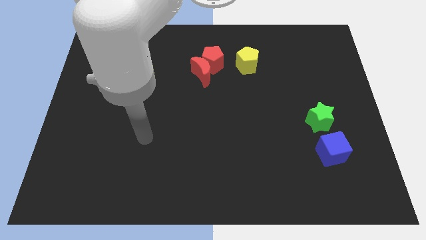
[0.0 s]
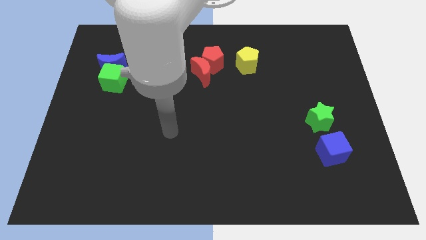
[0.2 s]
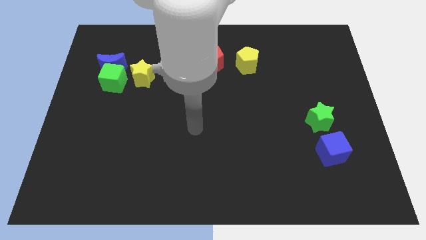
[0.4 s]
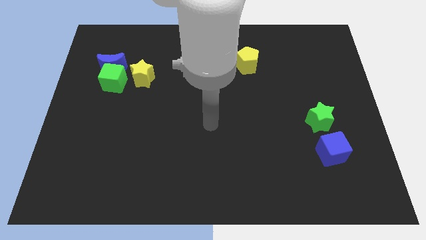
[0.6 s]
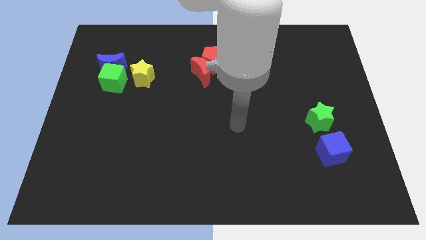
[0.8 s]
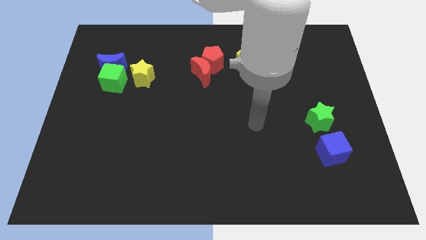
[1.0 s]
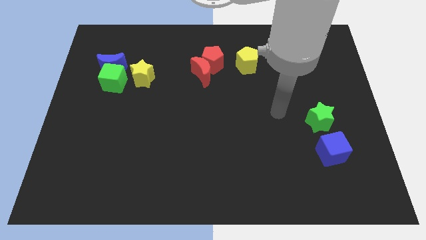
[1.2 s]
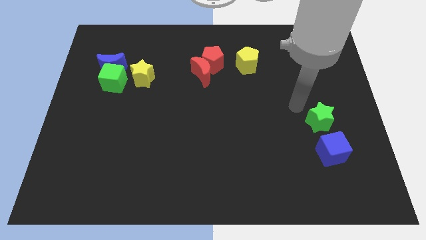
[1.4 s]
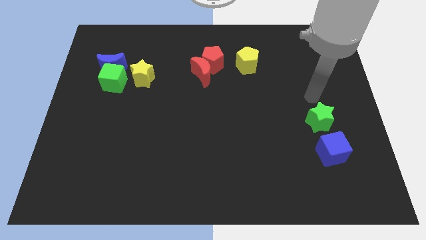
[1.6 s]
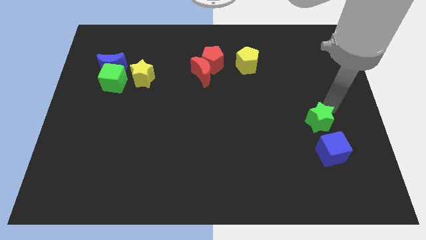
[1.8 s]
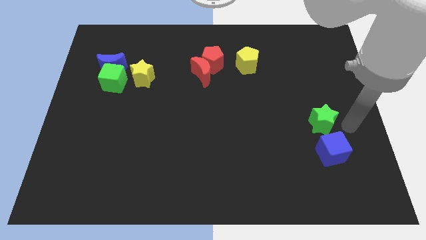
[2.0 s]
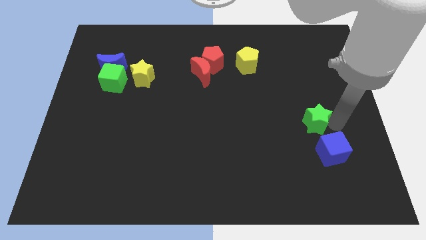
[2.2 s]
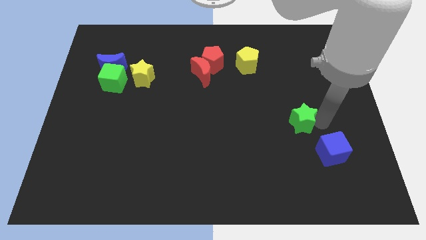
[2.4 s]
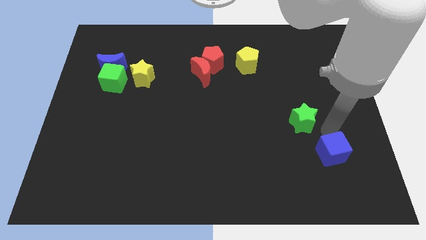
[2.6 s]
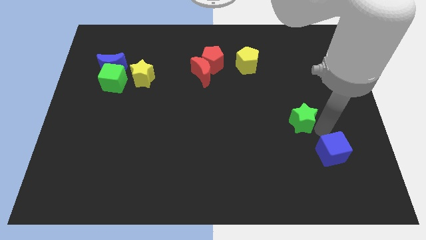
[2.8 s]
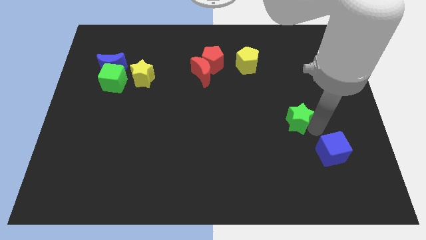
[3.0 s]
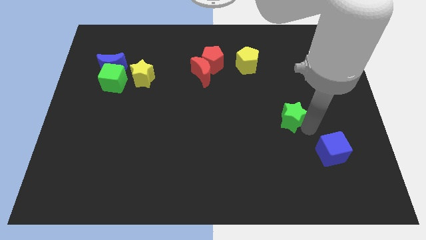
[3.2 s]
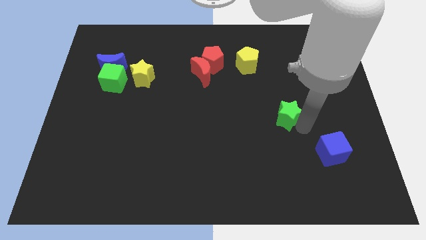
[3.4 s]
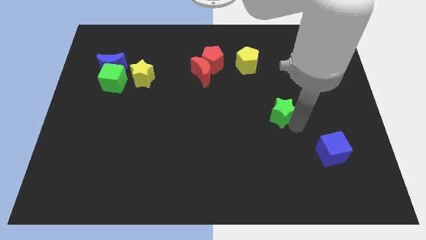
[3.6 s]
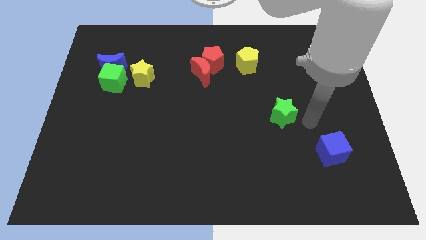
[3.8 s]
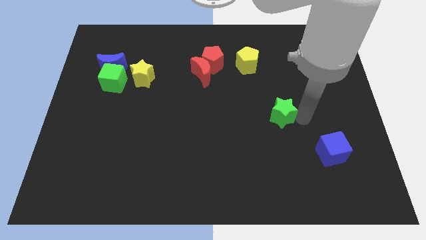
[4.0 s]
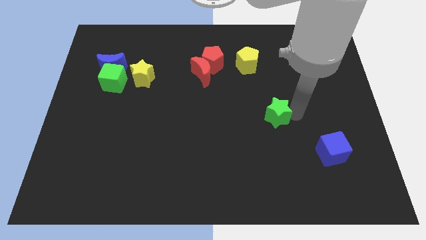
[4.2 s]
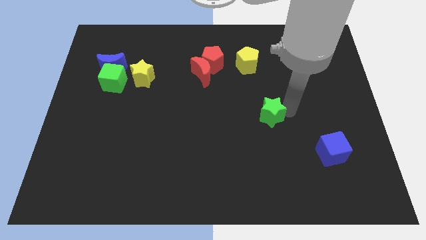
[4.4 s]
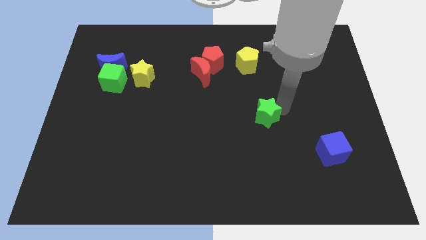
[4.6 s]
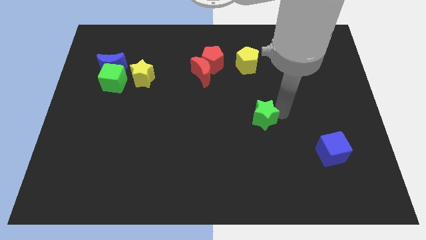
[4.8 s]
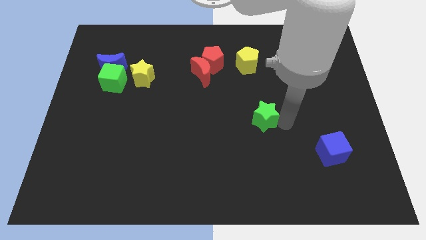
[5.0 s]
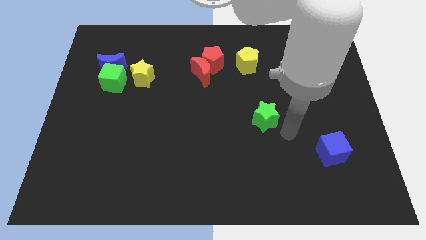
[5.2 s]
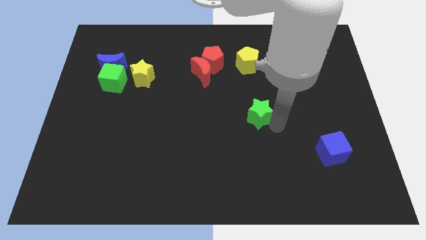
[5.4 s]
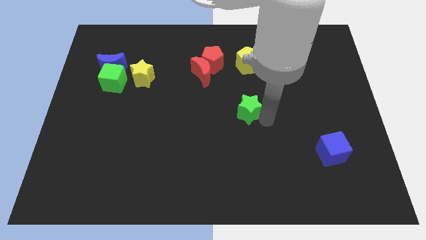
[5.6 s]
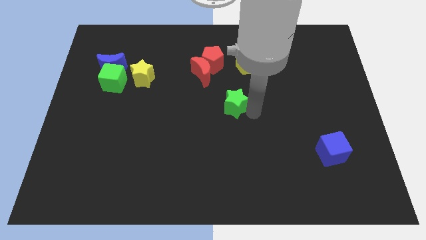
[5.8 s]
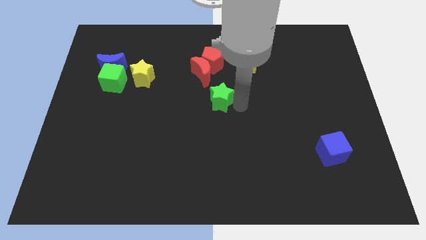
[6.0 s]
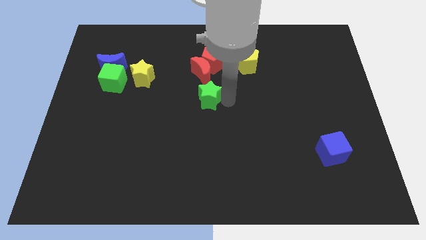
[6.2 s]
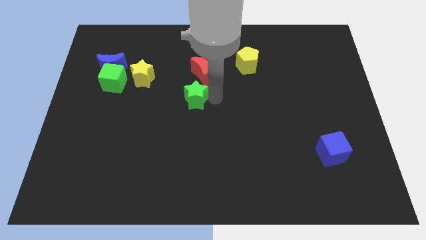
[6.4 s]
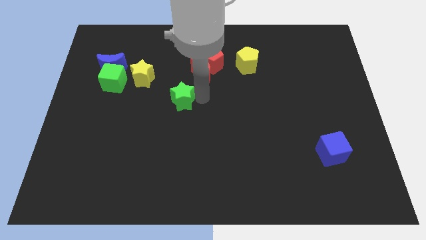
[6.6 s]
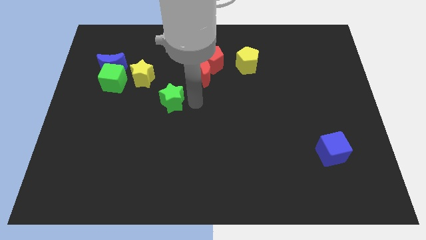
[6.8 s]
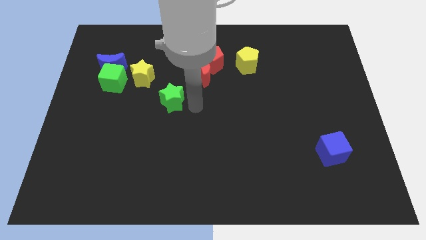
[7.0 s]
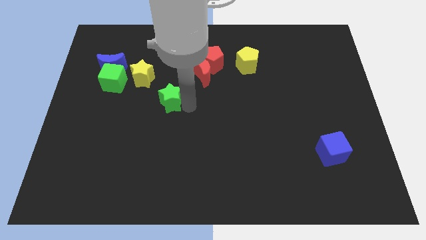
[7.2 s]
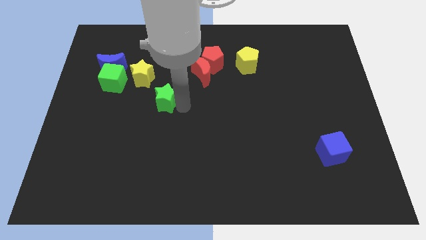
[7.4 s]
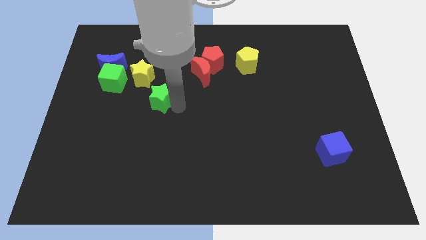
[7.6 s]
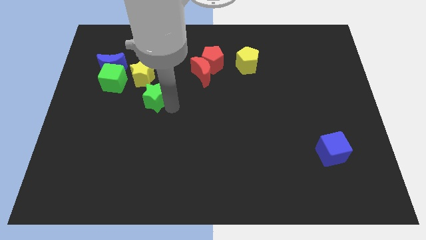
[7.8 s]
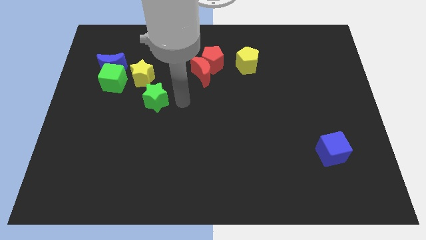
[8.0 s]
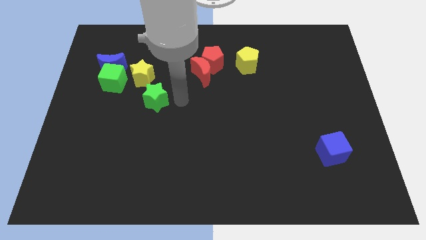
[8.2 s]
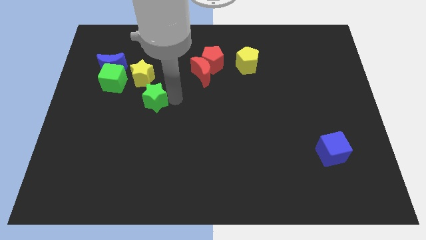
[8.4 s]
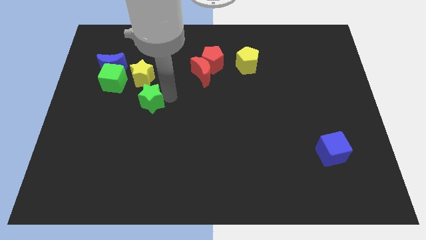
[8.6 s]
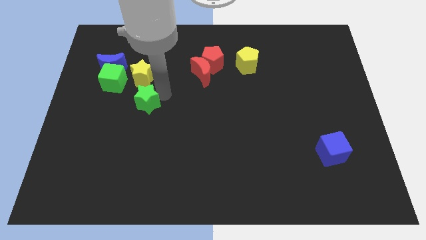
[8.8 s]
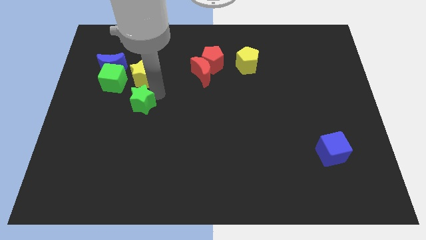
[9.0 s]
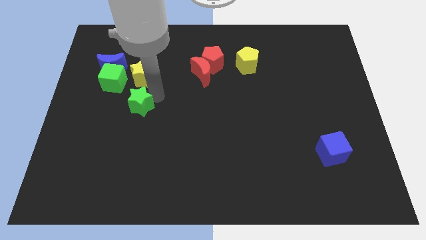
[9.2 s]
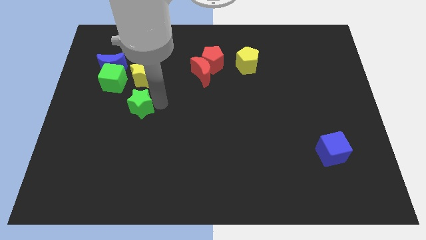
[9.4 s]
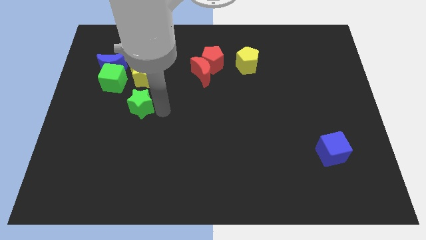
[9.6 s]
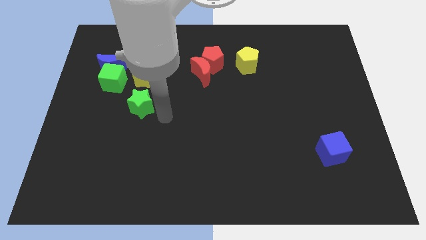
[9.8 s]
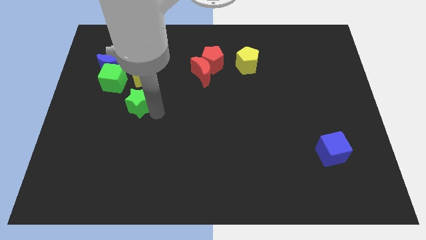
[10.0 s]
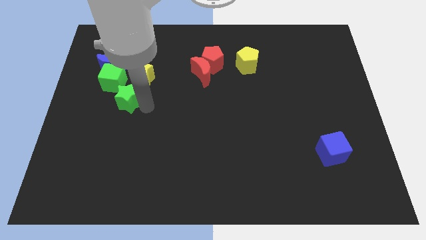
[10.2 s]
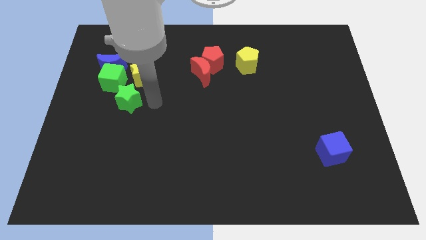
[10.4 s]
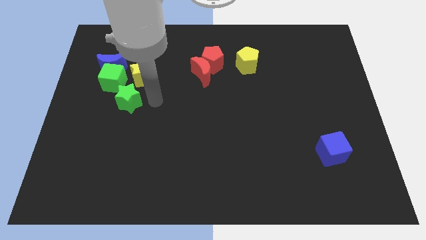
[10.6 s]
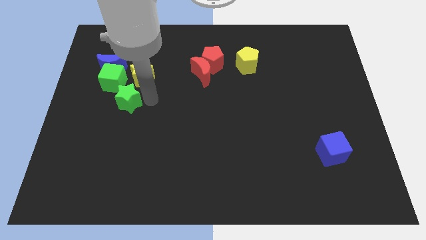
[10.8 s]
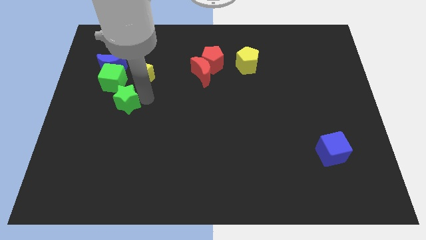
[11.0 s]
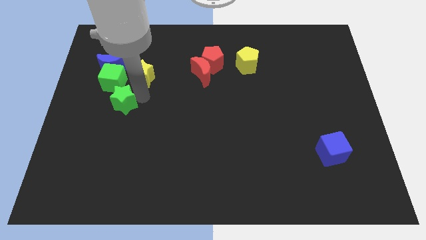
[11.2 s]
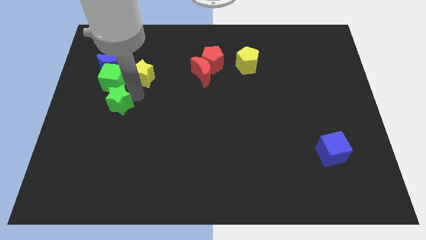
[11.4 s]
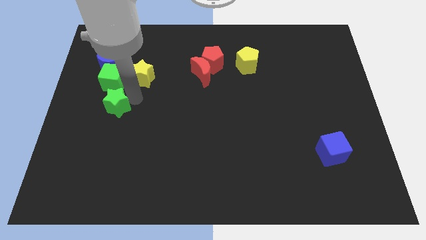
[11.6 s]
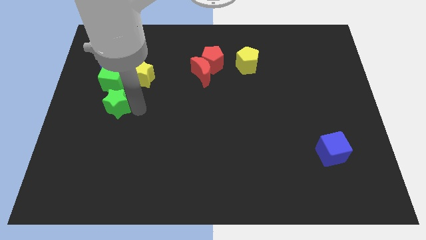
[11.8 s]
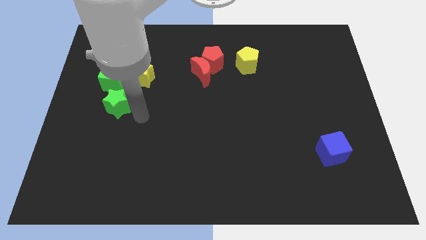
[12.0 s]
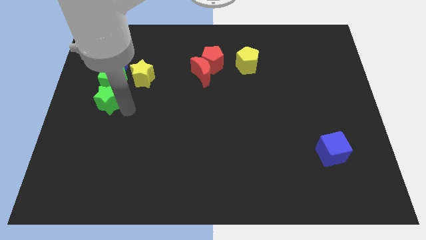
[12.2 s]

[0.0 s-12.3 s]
move the green star to the center left
